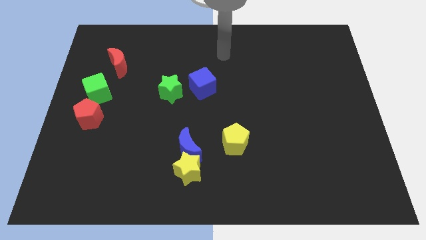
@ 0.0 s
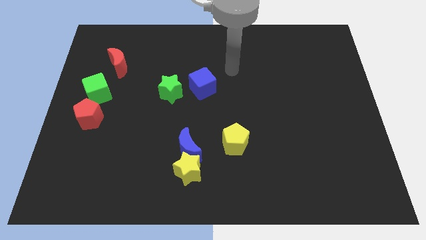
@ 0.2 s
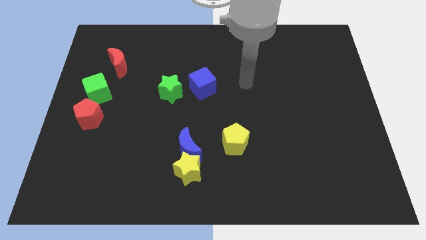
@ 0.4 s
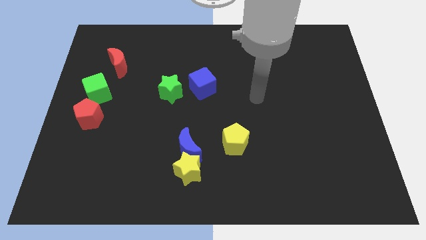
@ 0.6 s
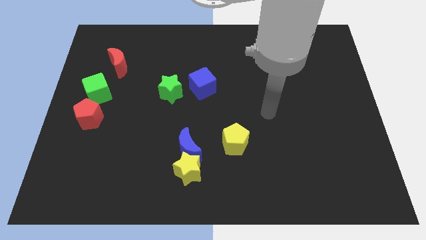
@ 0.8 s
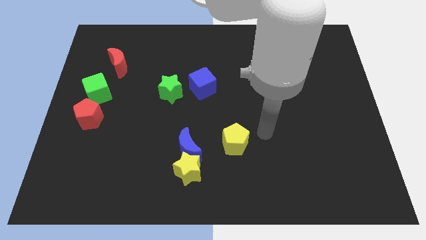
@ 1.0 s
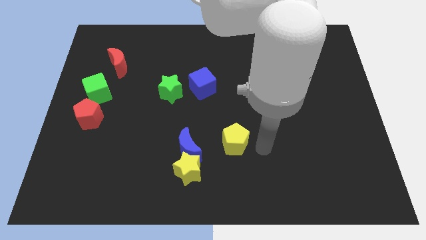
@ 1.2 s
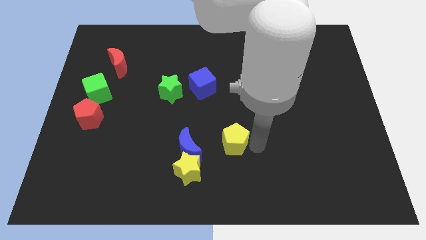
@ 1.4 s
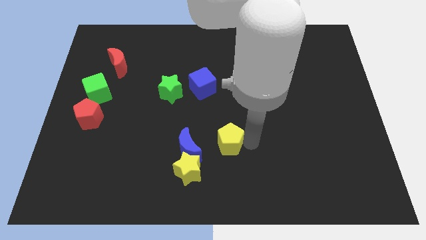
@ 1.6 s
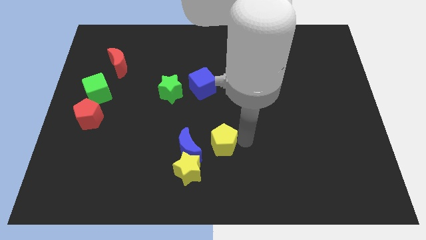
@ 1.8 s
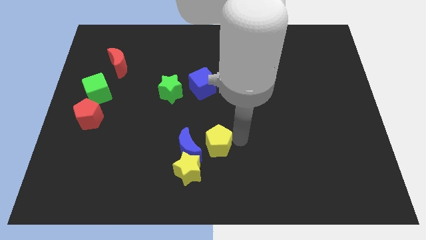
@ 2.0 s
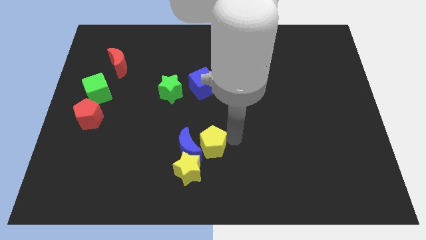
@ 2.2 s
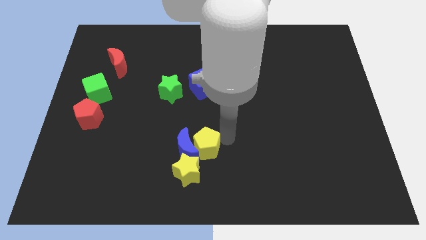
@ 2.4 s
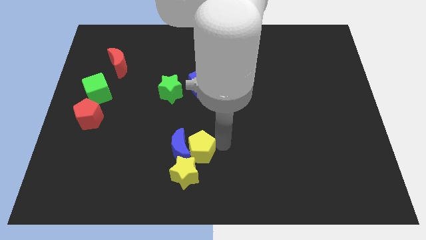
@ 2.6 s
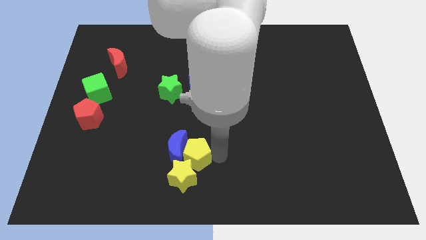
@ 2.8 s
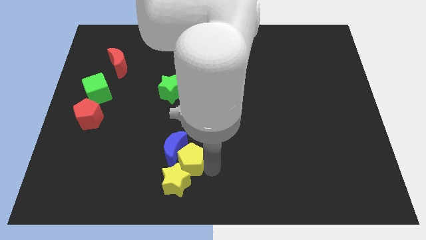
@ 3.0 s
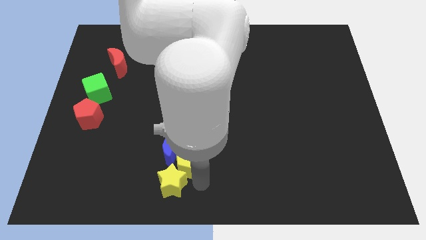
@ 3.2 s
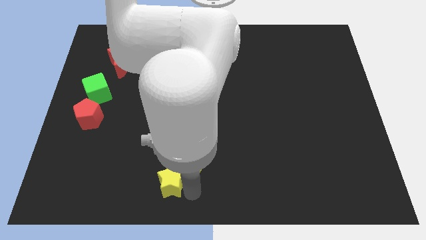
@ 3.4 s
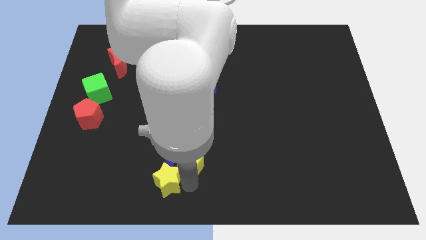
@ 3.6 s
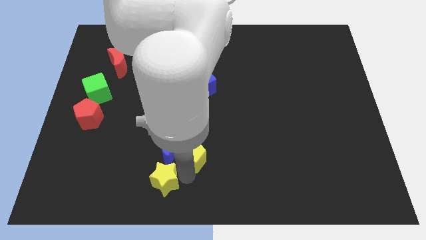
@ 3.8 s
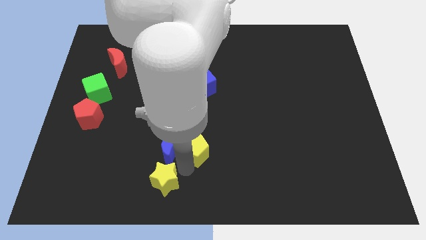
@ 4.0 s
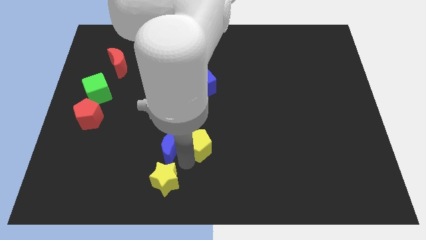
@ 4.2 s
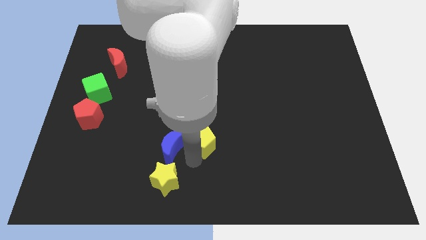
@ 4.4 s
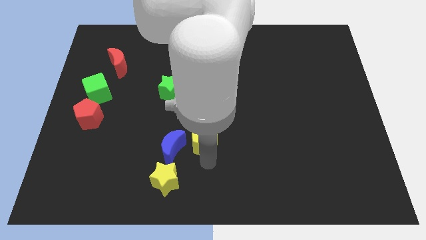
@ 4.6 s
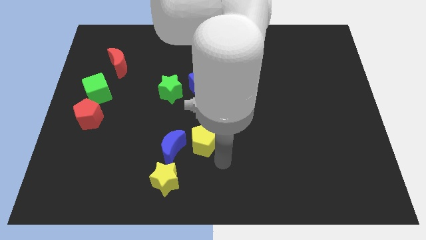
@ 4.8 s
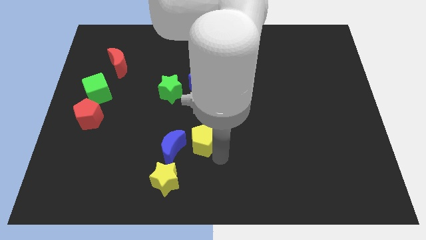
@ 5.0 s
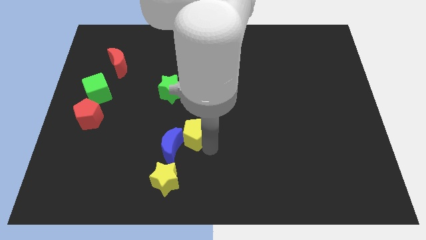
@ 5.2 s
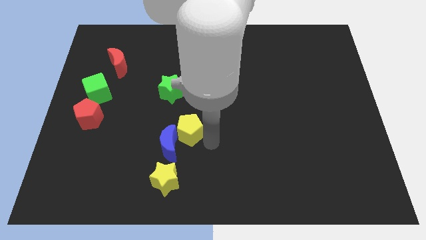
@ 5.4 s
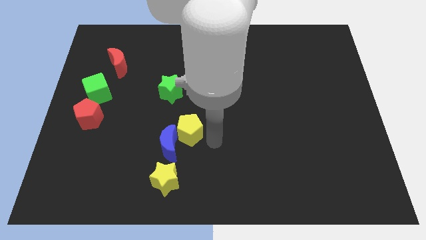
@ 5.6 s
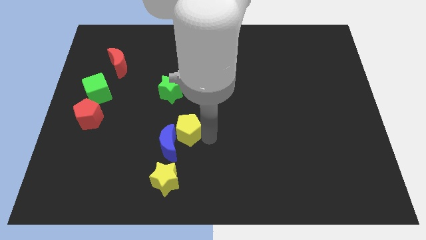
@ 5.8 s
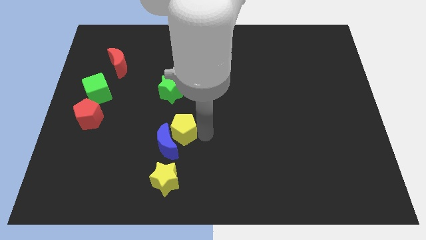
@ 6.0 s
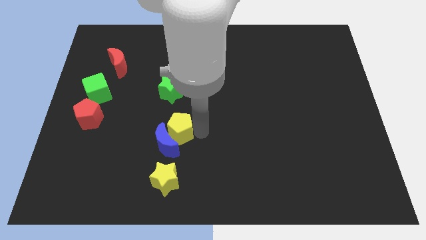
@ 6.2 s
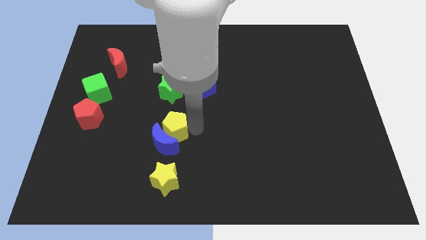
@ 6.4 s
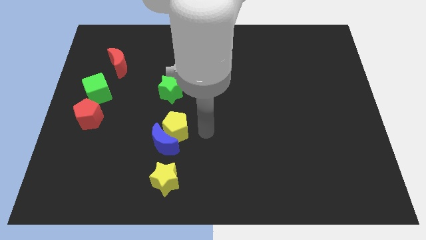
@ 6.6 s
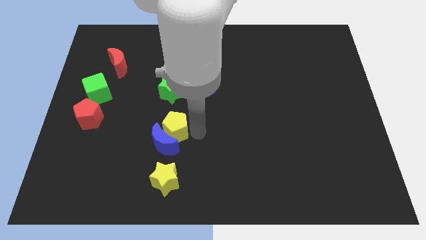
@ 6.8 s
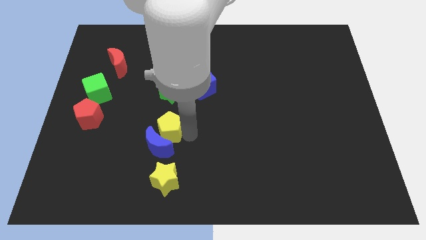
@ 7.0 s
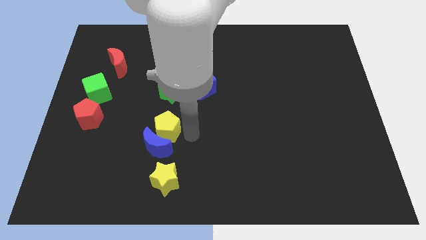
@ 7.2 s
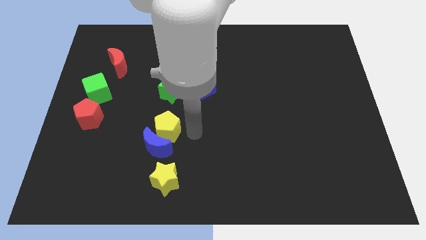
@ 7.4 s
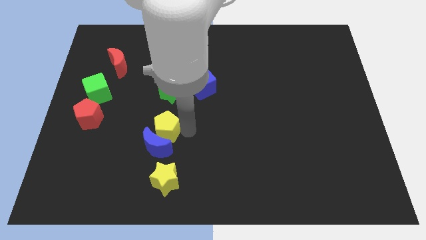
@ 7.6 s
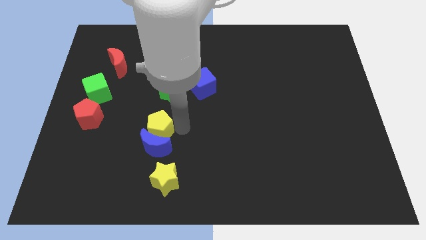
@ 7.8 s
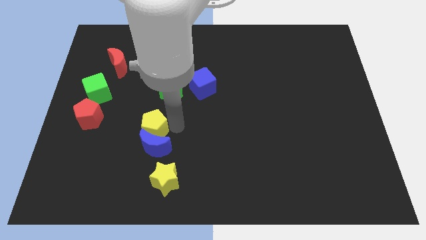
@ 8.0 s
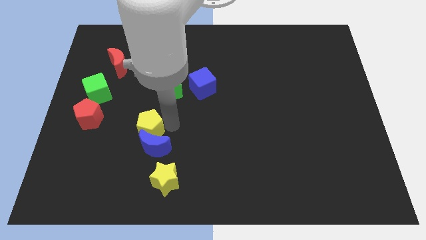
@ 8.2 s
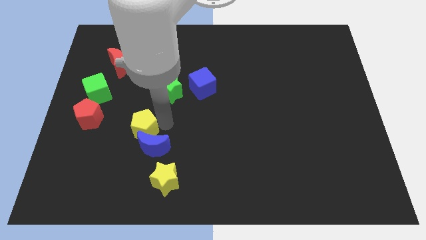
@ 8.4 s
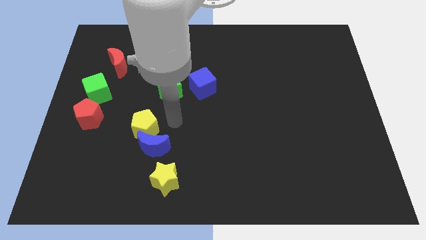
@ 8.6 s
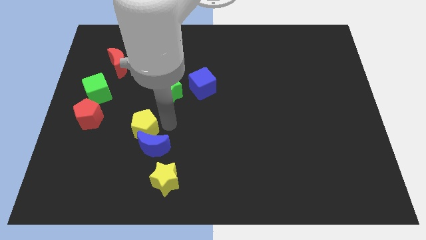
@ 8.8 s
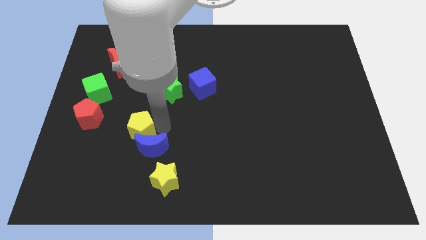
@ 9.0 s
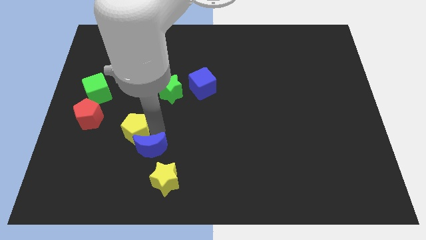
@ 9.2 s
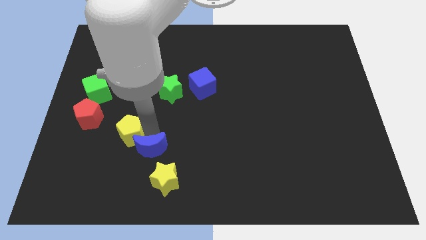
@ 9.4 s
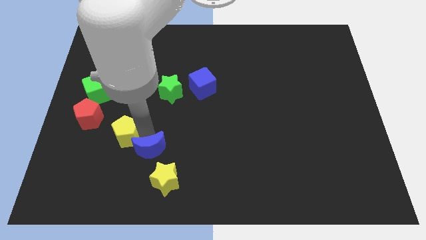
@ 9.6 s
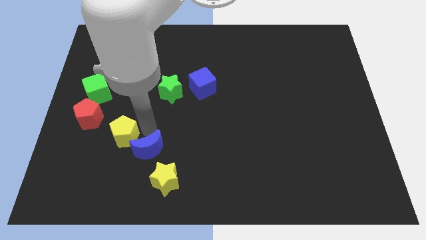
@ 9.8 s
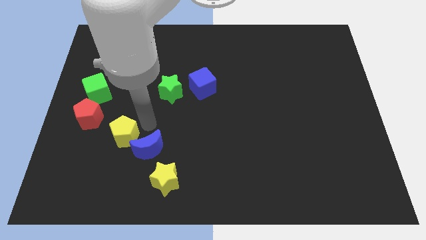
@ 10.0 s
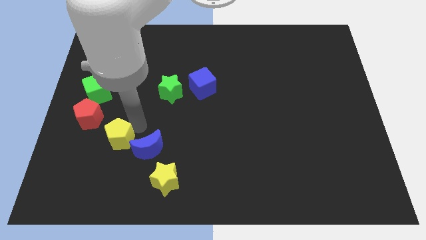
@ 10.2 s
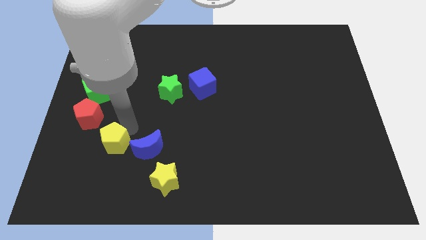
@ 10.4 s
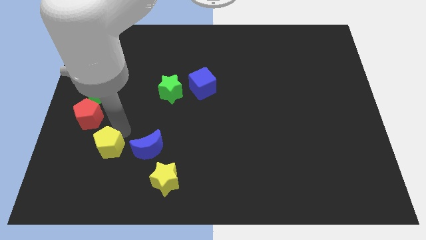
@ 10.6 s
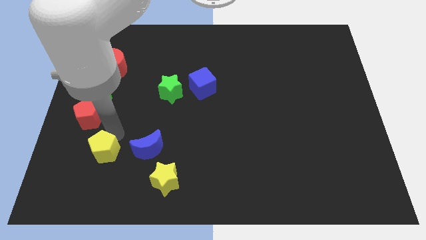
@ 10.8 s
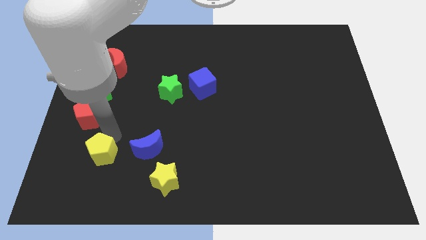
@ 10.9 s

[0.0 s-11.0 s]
push the yellow pentagon below the red pentagon
